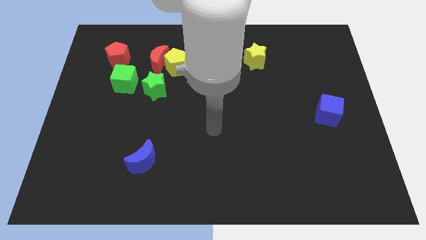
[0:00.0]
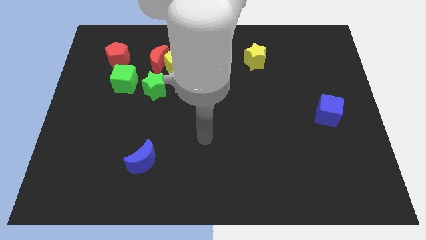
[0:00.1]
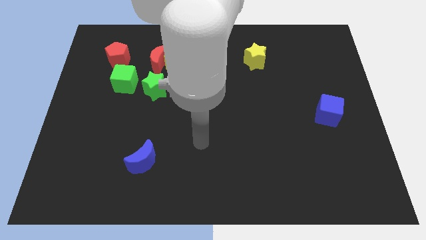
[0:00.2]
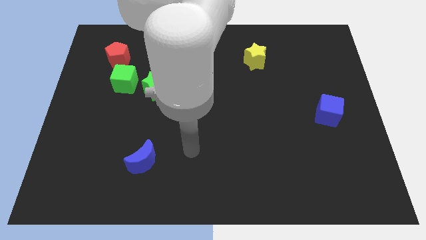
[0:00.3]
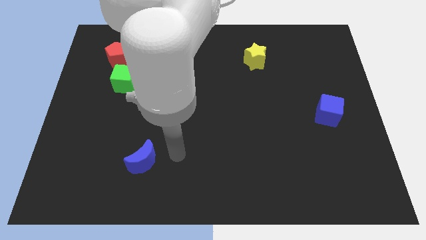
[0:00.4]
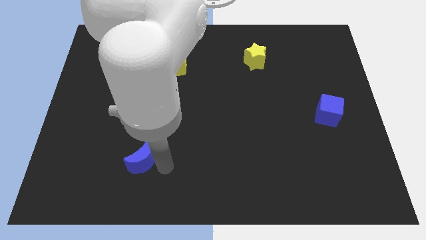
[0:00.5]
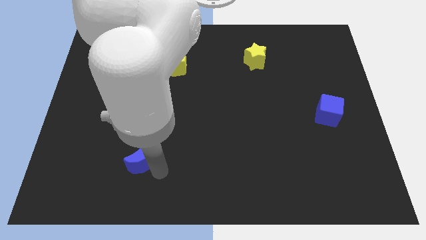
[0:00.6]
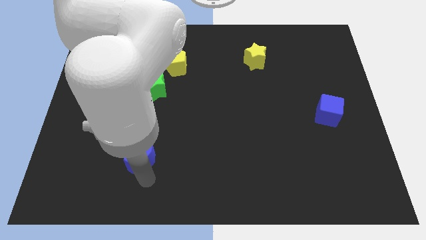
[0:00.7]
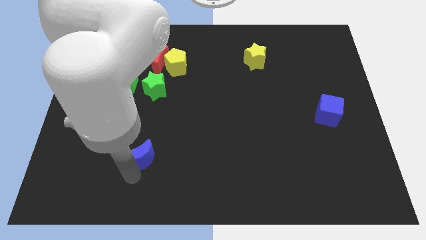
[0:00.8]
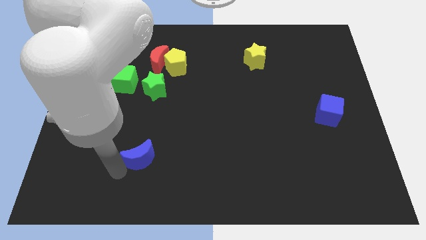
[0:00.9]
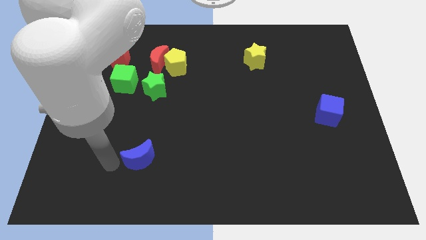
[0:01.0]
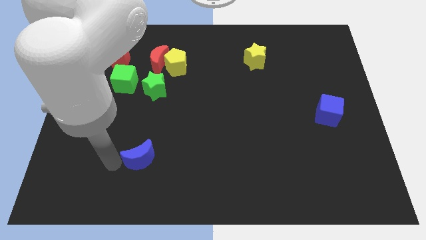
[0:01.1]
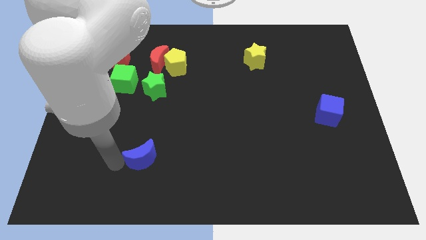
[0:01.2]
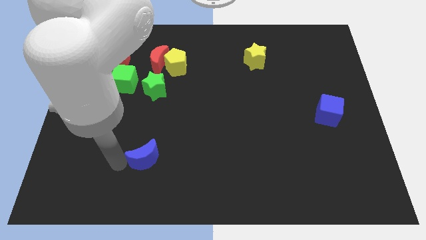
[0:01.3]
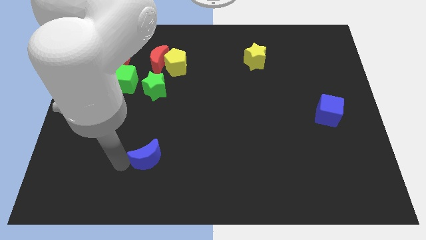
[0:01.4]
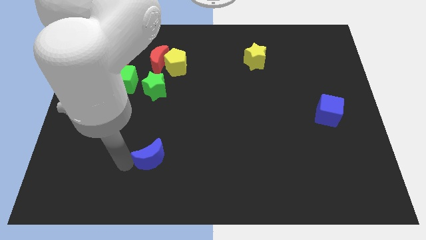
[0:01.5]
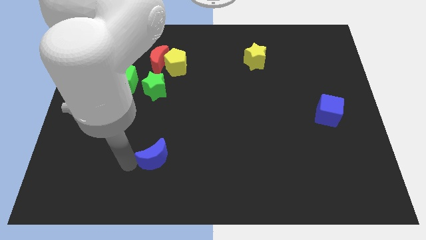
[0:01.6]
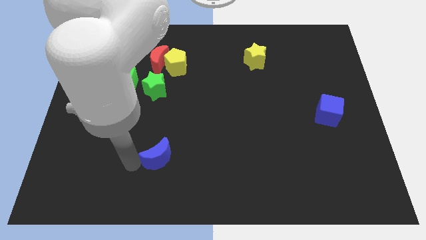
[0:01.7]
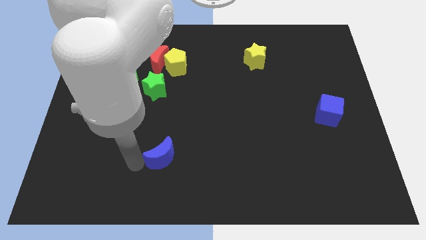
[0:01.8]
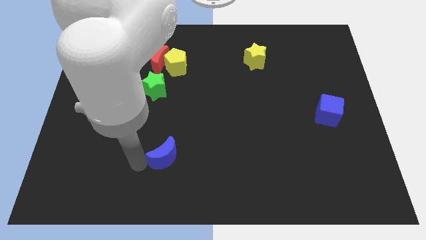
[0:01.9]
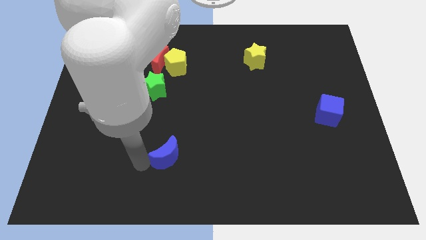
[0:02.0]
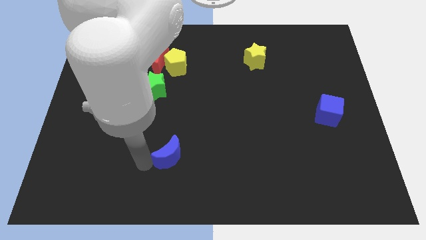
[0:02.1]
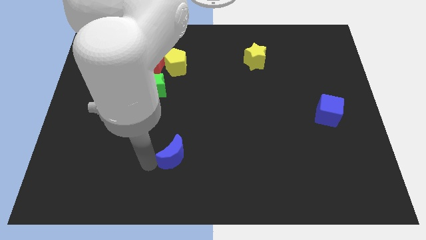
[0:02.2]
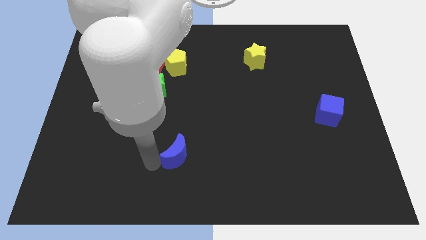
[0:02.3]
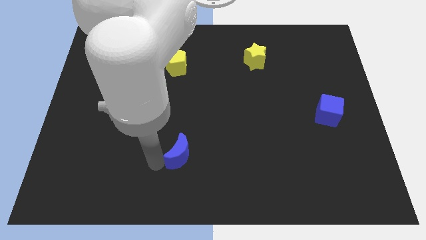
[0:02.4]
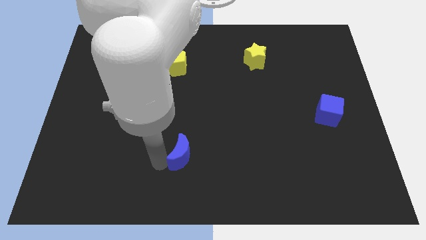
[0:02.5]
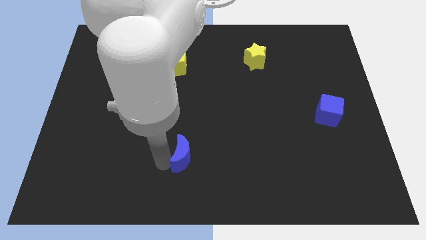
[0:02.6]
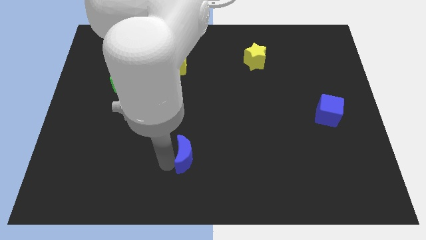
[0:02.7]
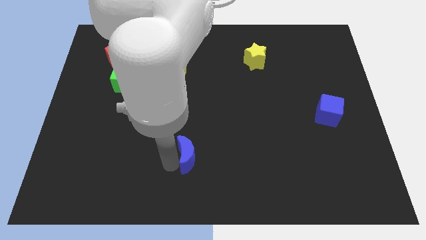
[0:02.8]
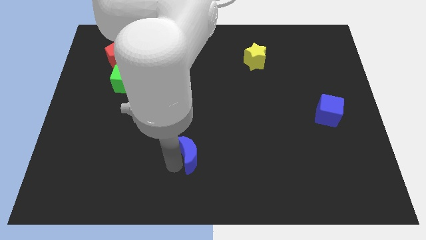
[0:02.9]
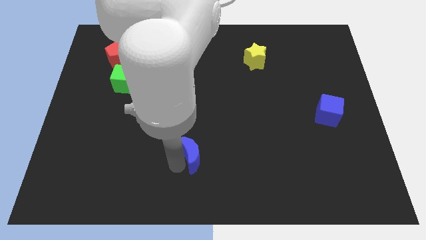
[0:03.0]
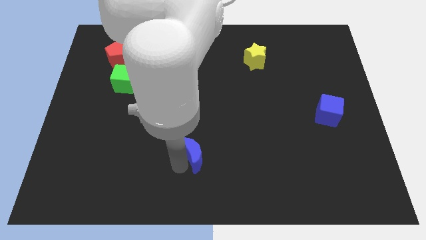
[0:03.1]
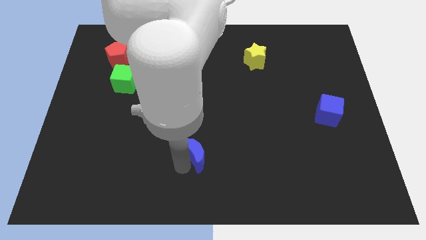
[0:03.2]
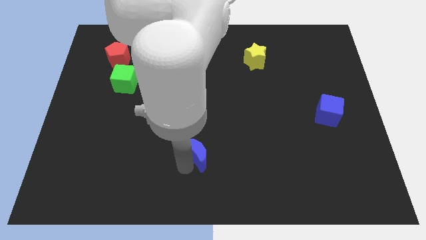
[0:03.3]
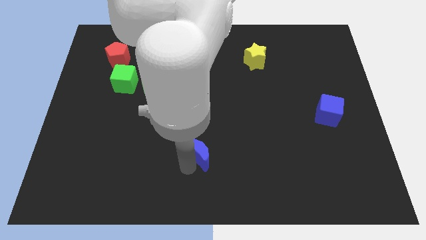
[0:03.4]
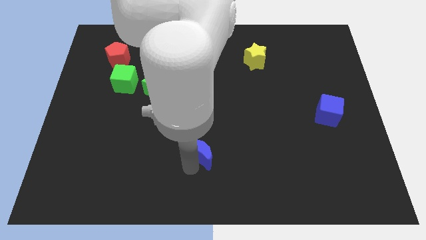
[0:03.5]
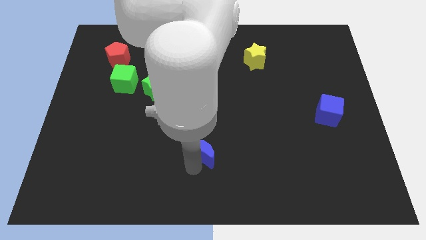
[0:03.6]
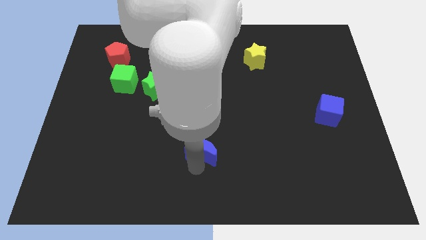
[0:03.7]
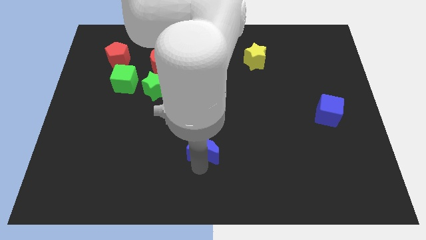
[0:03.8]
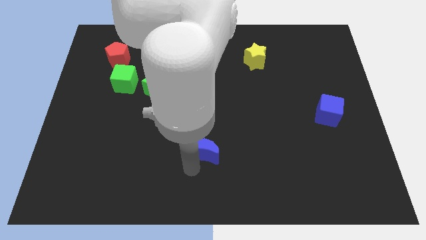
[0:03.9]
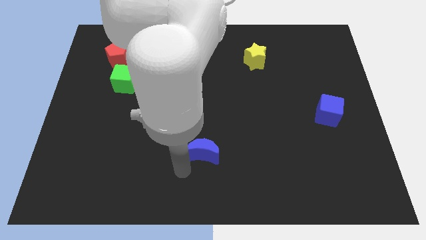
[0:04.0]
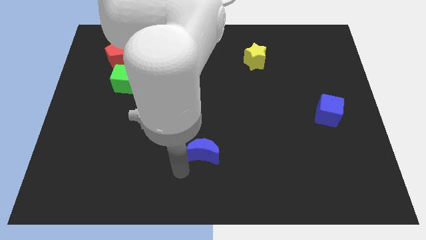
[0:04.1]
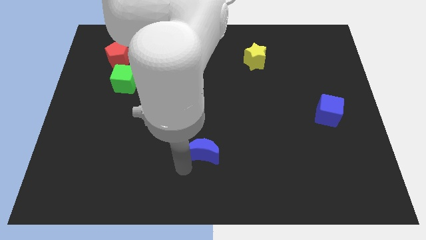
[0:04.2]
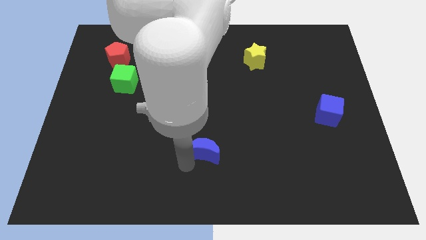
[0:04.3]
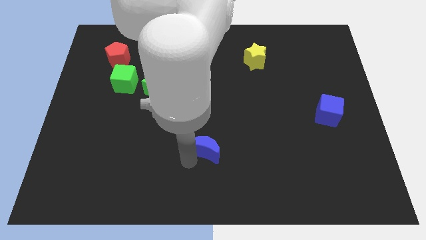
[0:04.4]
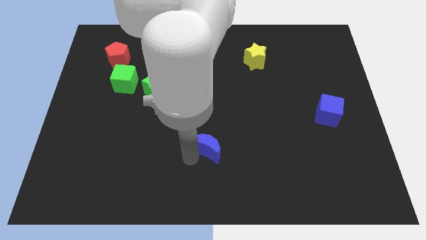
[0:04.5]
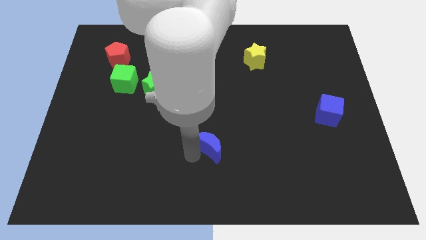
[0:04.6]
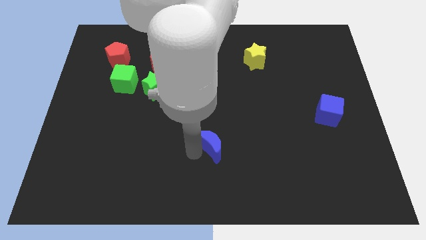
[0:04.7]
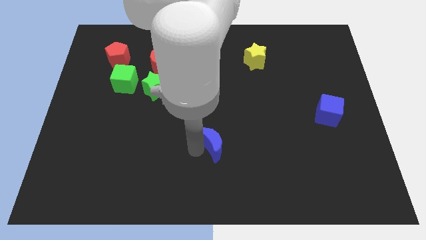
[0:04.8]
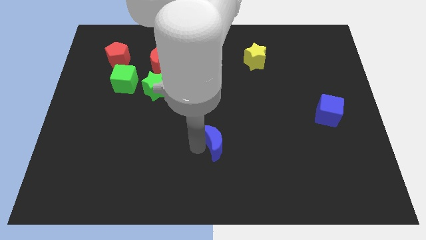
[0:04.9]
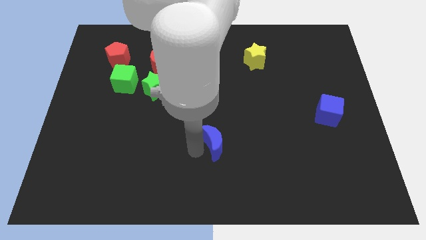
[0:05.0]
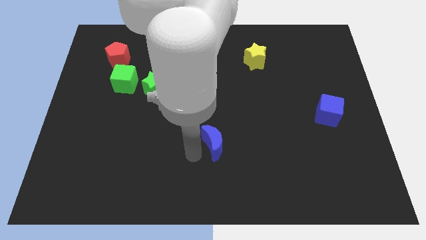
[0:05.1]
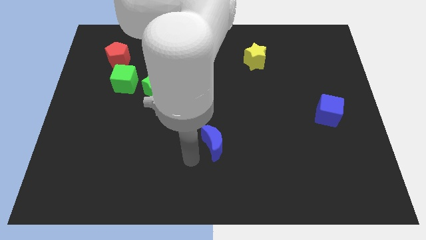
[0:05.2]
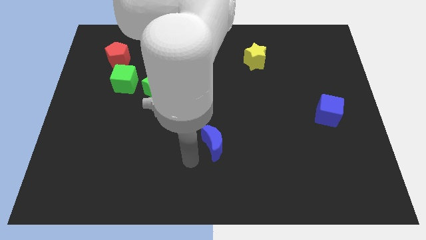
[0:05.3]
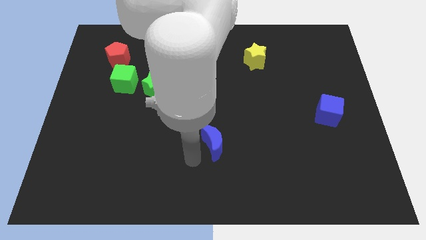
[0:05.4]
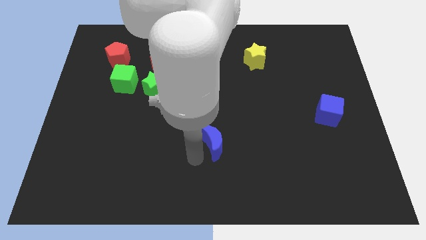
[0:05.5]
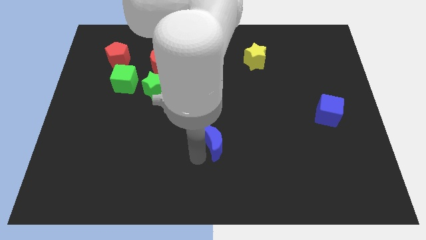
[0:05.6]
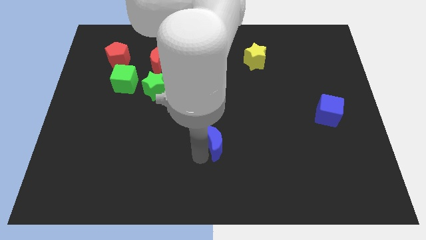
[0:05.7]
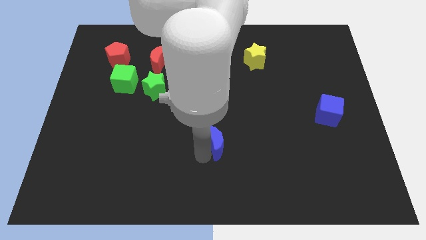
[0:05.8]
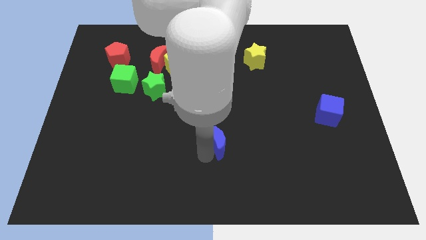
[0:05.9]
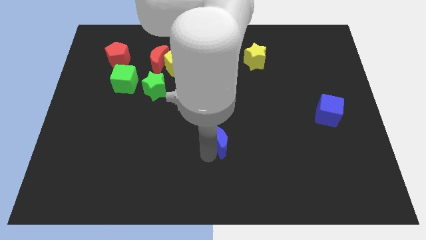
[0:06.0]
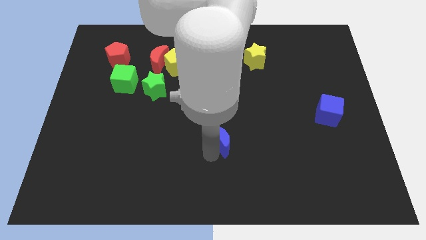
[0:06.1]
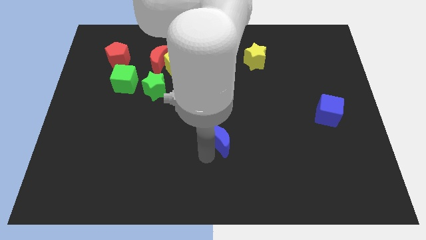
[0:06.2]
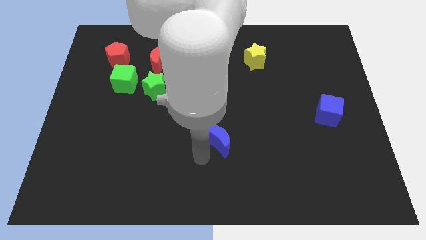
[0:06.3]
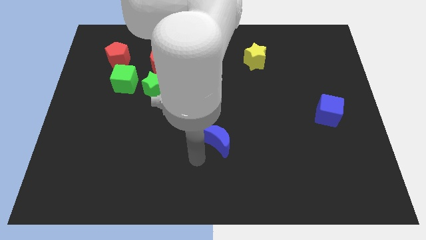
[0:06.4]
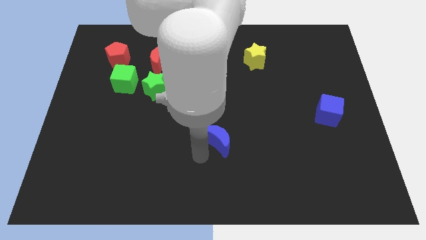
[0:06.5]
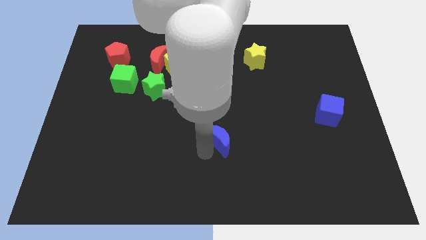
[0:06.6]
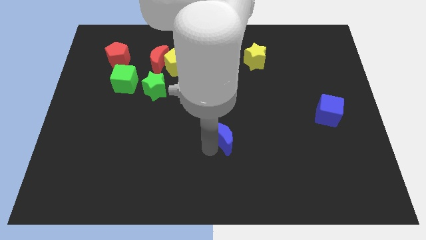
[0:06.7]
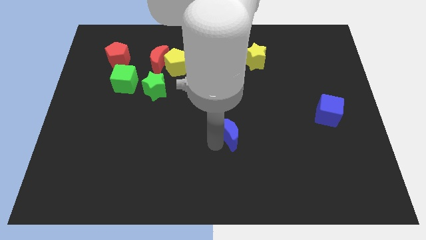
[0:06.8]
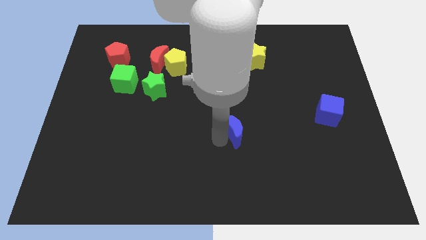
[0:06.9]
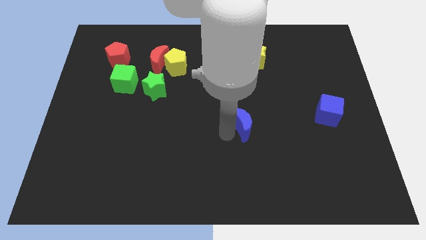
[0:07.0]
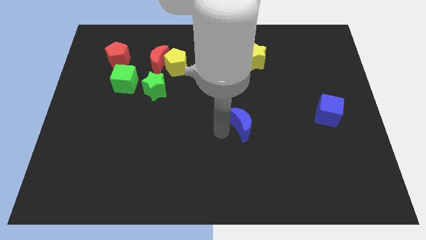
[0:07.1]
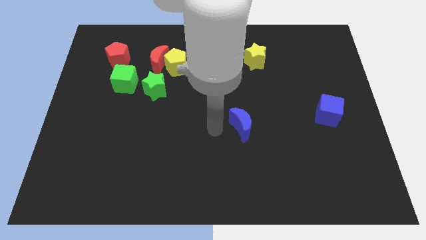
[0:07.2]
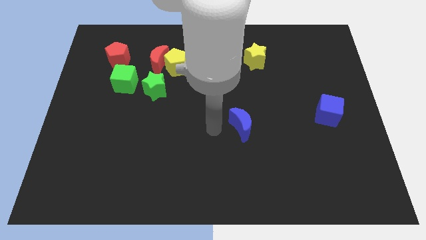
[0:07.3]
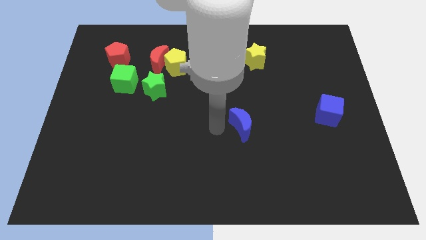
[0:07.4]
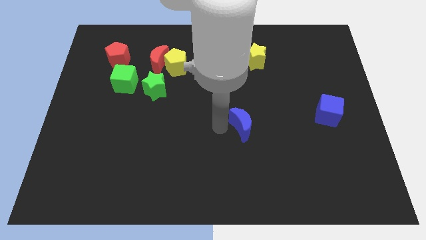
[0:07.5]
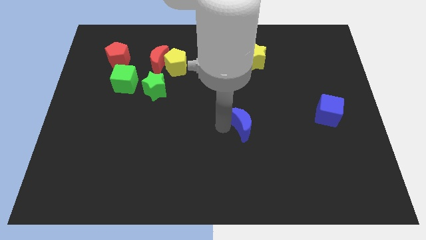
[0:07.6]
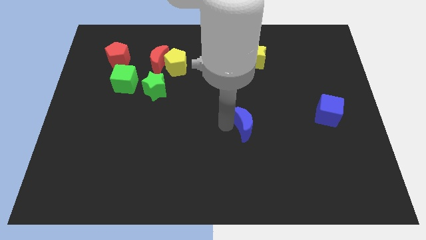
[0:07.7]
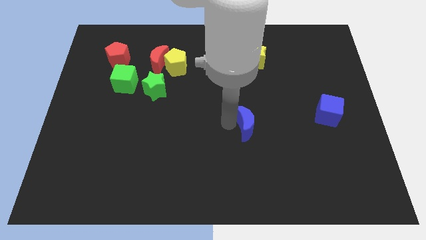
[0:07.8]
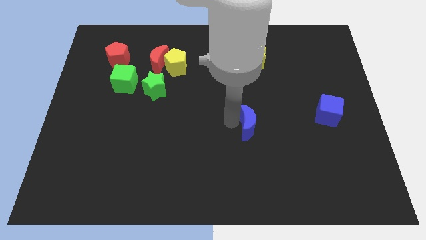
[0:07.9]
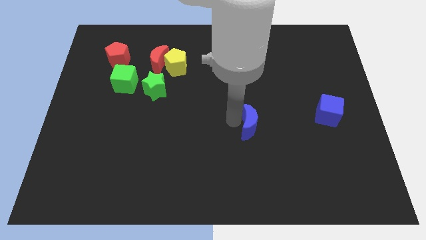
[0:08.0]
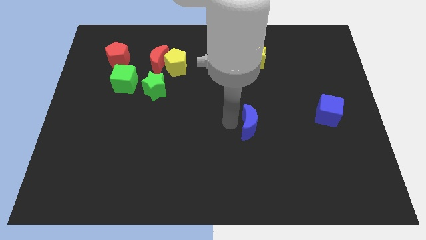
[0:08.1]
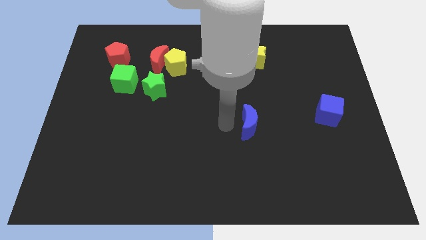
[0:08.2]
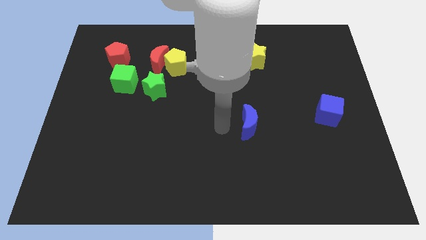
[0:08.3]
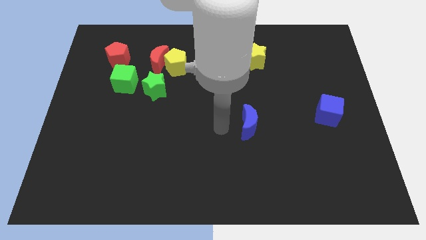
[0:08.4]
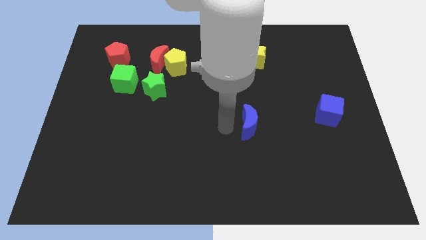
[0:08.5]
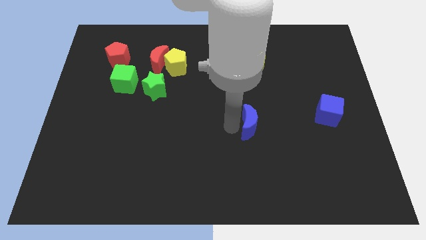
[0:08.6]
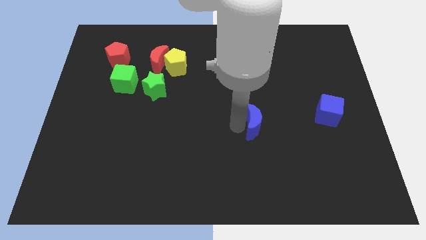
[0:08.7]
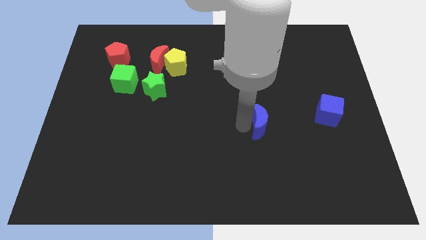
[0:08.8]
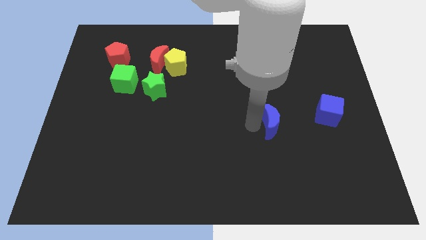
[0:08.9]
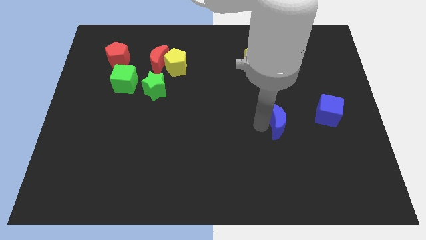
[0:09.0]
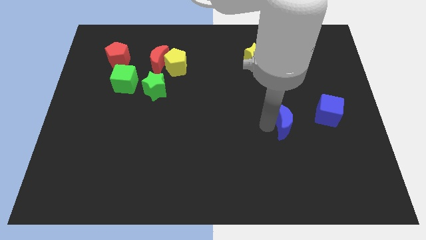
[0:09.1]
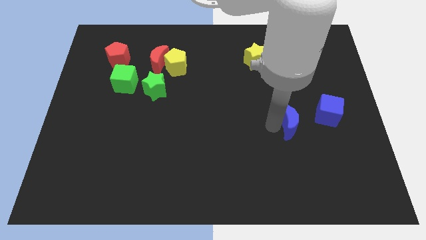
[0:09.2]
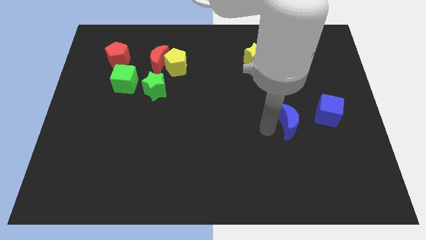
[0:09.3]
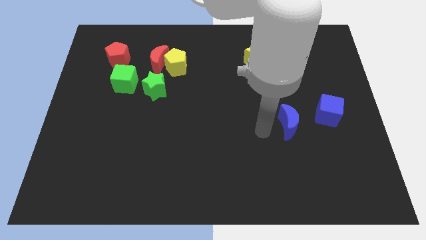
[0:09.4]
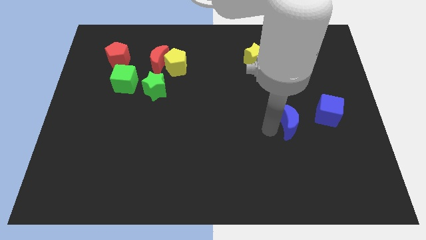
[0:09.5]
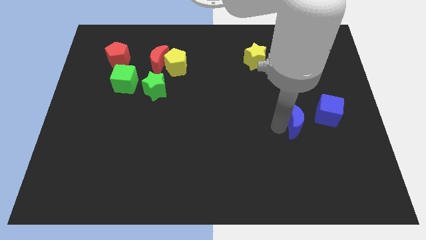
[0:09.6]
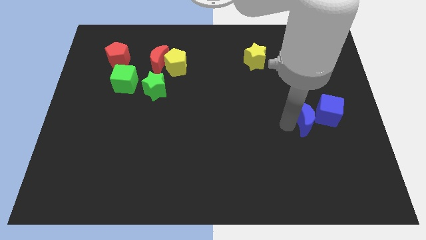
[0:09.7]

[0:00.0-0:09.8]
move the blue moon to the blue cube
